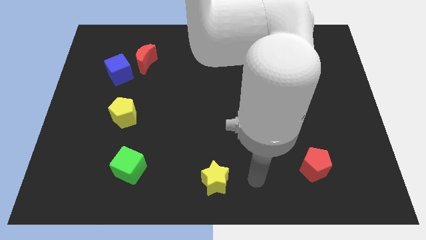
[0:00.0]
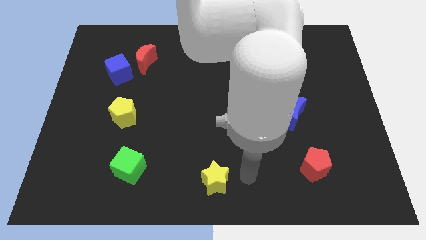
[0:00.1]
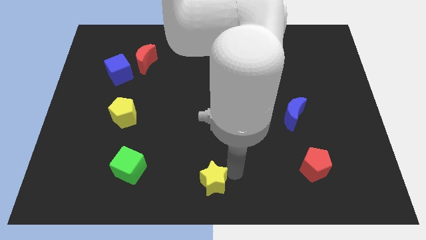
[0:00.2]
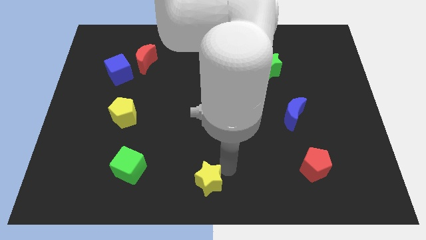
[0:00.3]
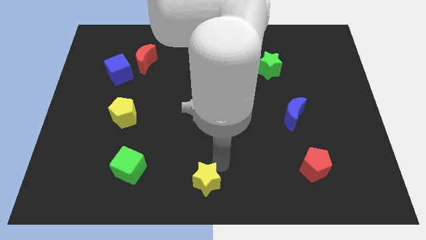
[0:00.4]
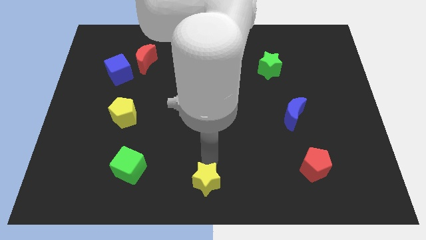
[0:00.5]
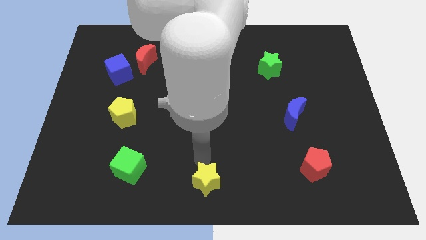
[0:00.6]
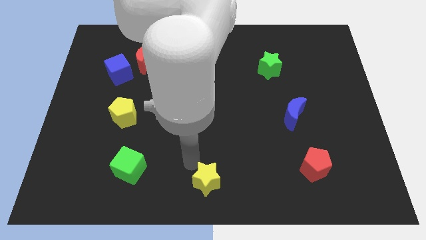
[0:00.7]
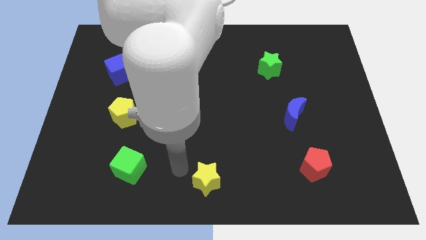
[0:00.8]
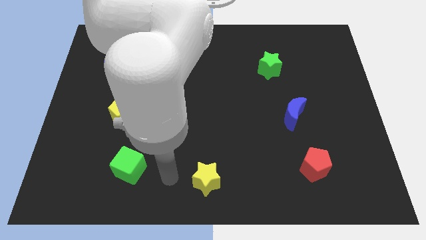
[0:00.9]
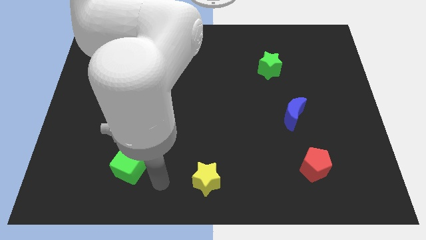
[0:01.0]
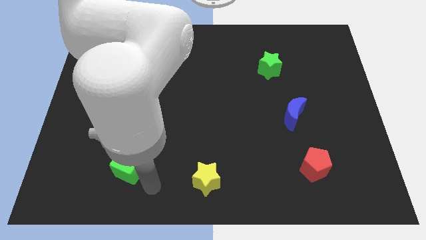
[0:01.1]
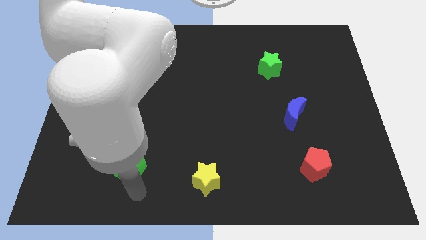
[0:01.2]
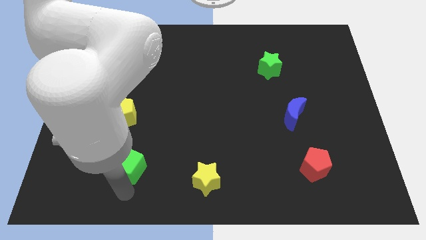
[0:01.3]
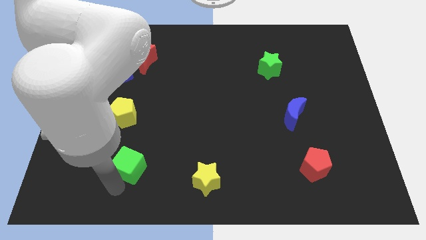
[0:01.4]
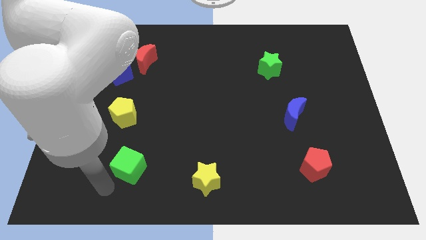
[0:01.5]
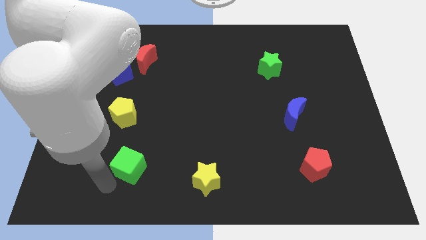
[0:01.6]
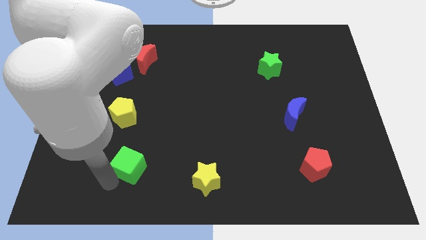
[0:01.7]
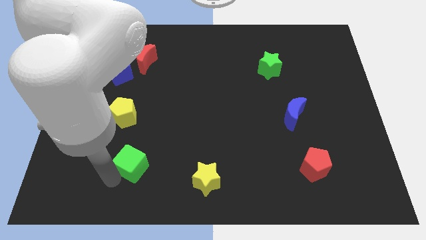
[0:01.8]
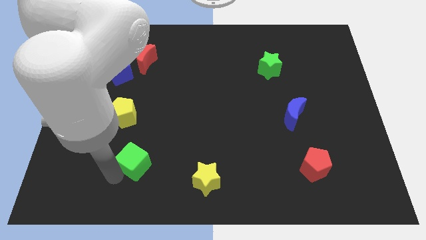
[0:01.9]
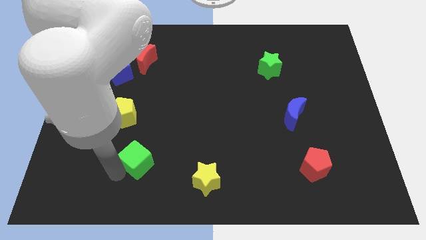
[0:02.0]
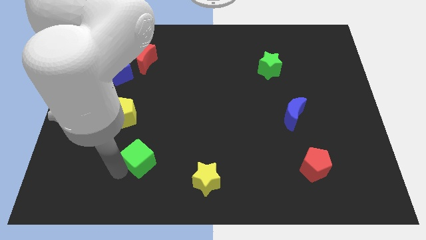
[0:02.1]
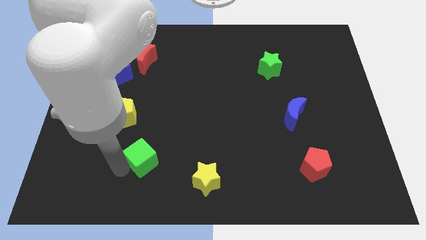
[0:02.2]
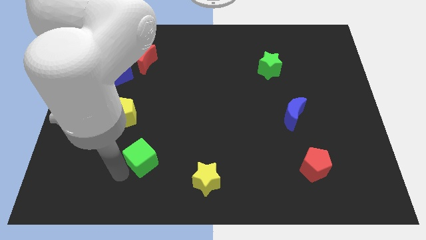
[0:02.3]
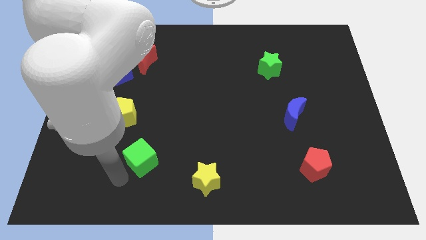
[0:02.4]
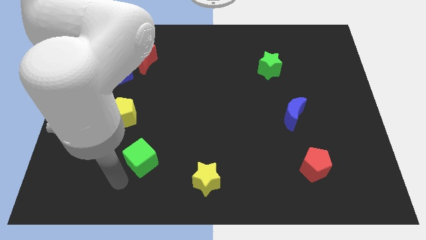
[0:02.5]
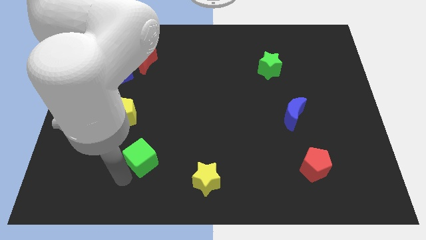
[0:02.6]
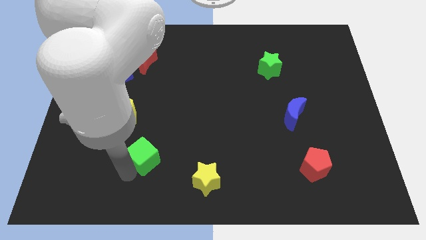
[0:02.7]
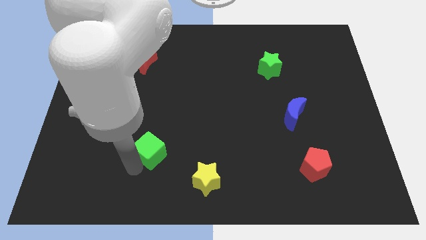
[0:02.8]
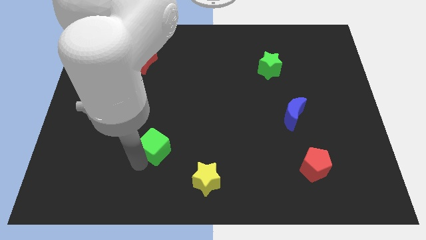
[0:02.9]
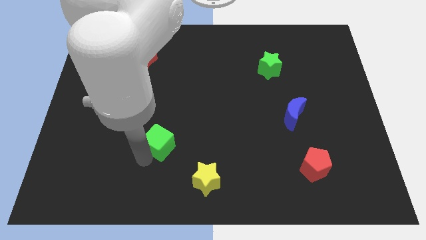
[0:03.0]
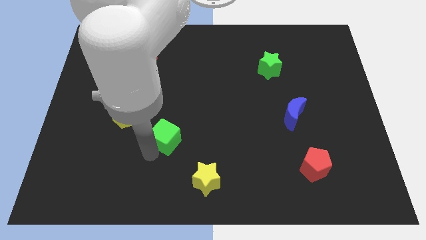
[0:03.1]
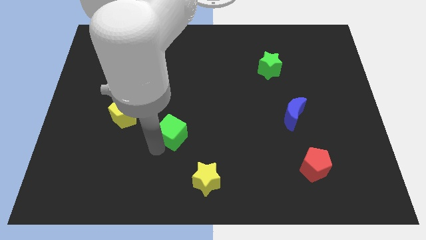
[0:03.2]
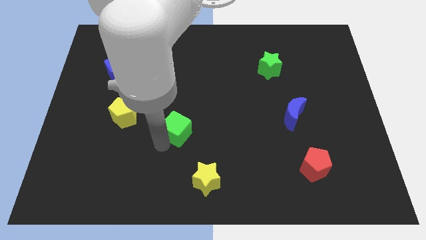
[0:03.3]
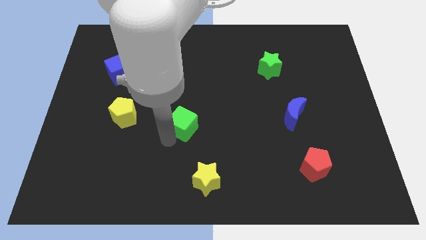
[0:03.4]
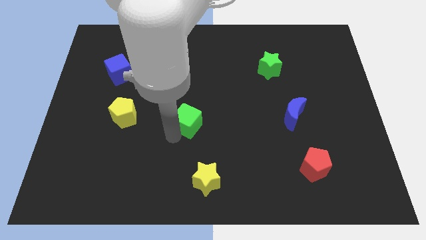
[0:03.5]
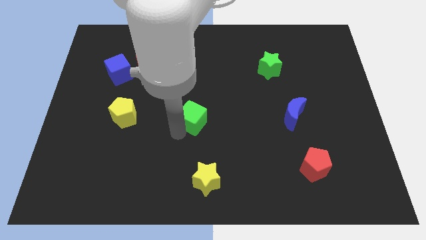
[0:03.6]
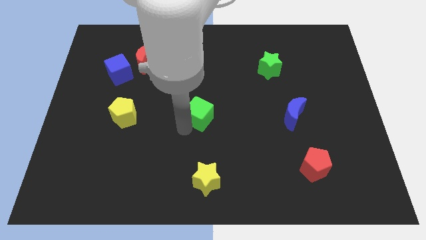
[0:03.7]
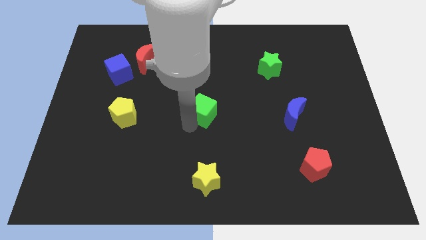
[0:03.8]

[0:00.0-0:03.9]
move the green cube upwards and then to the right

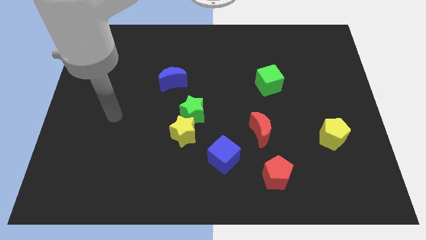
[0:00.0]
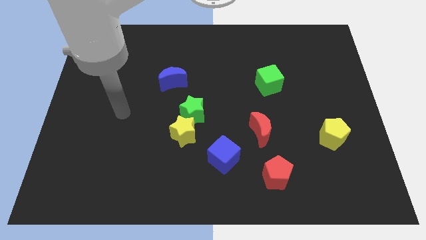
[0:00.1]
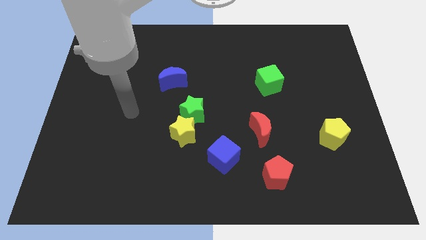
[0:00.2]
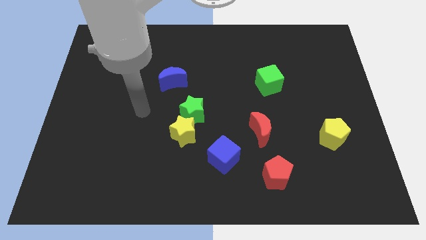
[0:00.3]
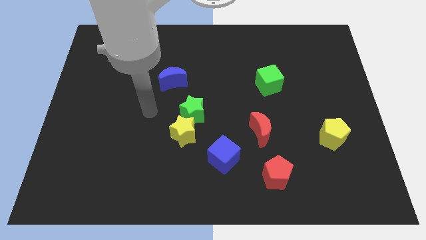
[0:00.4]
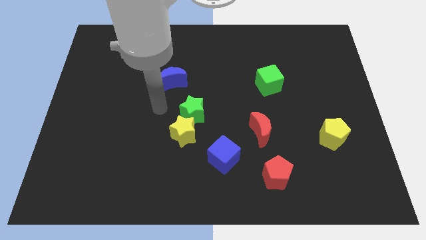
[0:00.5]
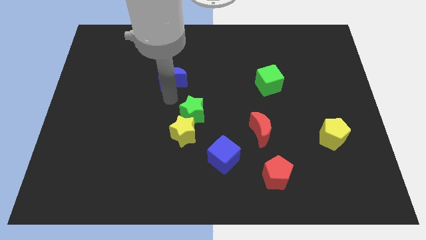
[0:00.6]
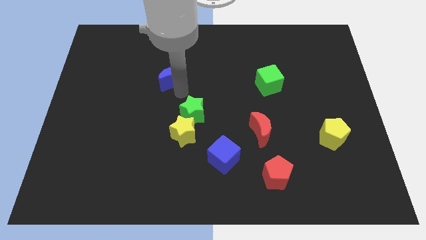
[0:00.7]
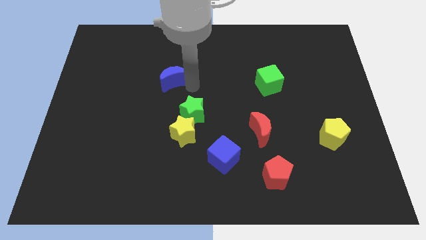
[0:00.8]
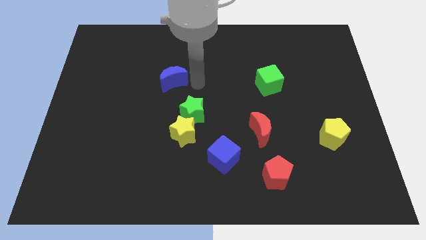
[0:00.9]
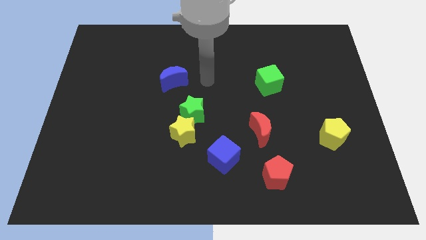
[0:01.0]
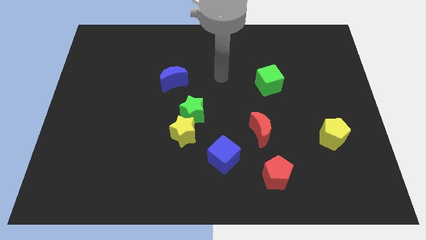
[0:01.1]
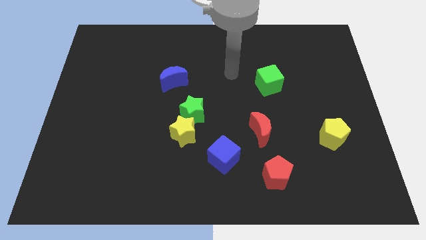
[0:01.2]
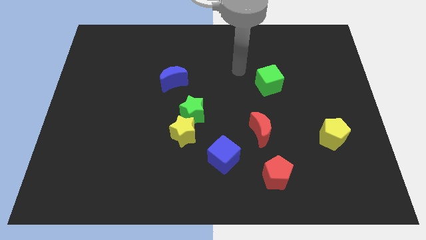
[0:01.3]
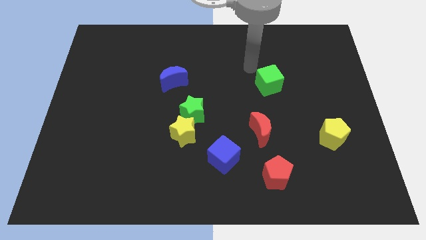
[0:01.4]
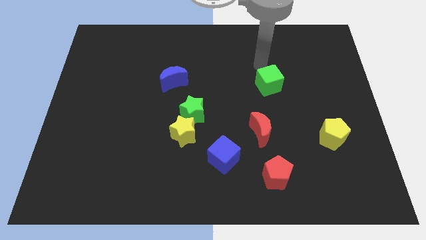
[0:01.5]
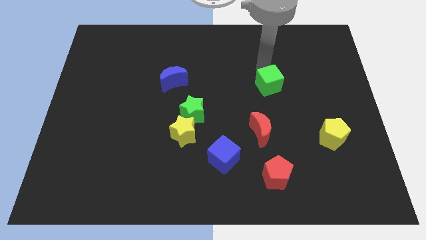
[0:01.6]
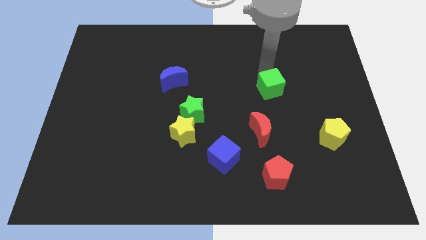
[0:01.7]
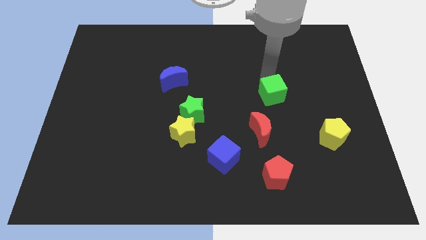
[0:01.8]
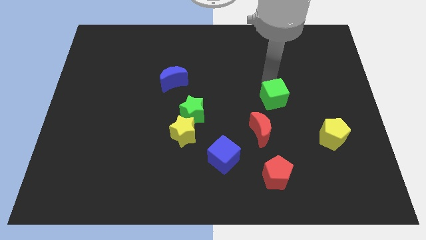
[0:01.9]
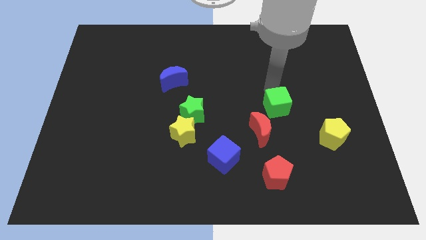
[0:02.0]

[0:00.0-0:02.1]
slightly push the green cube downwards

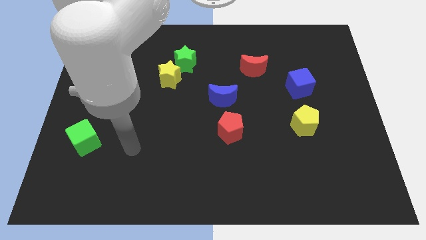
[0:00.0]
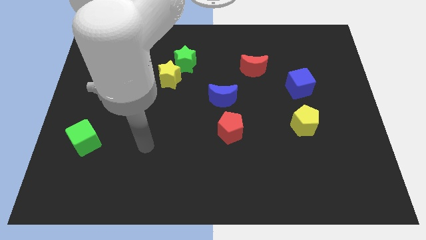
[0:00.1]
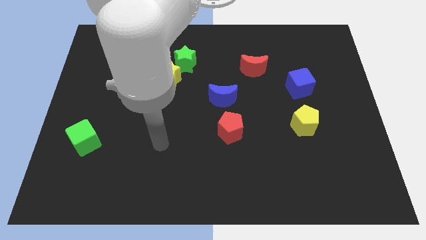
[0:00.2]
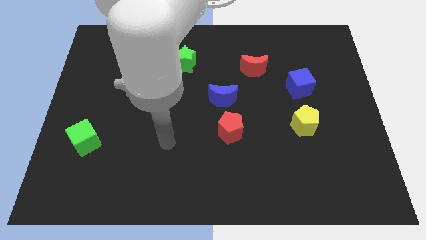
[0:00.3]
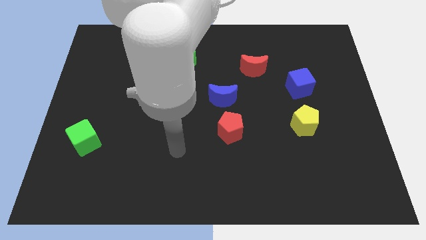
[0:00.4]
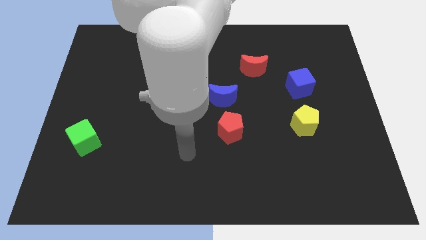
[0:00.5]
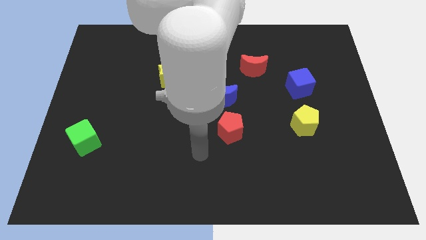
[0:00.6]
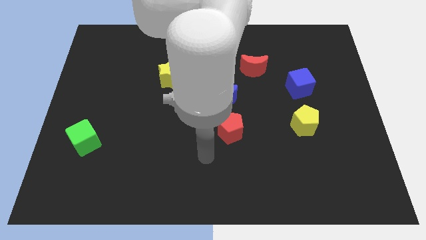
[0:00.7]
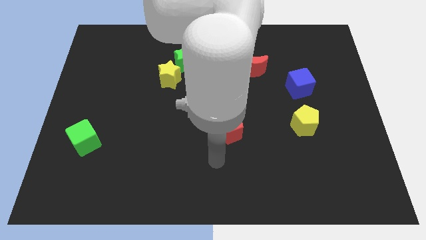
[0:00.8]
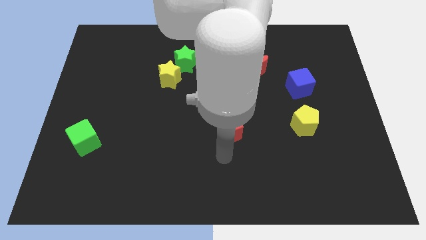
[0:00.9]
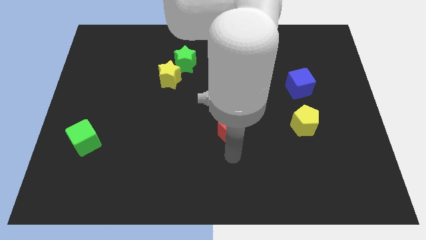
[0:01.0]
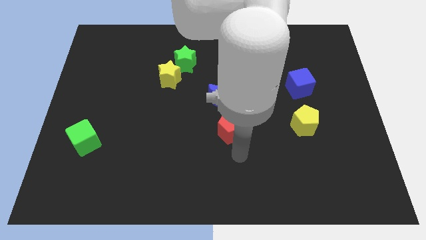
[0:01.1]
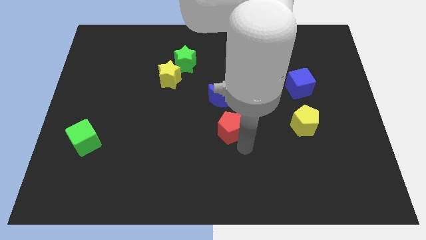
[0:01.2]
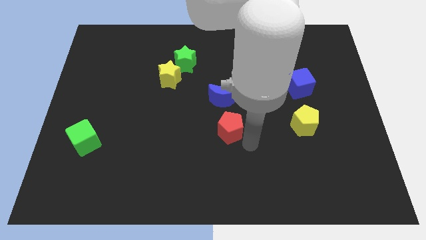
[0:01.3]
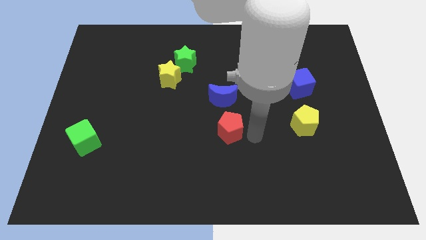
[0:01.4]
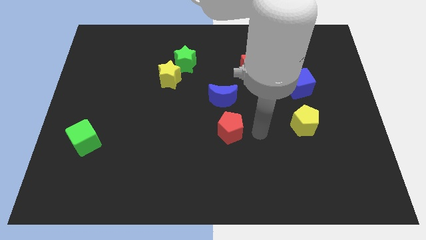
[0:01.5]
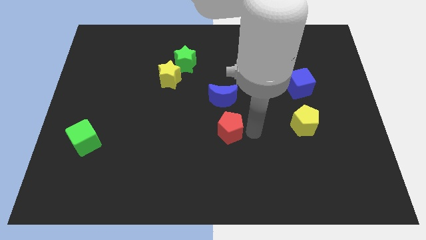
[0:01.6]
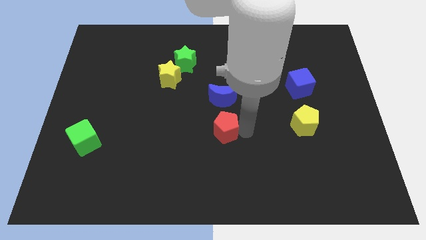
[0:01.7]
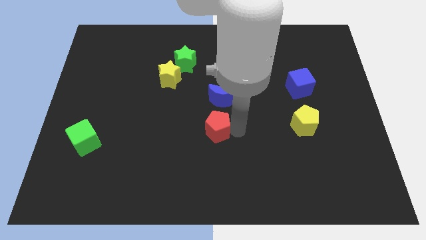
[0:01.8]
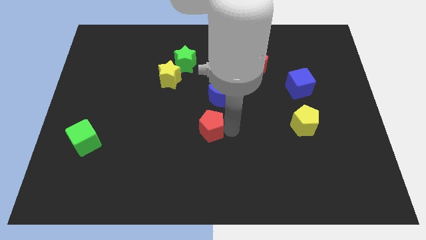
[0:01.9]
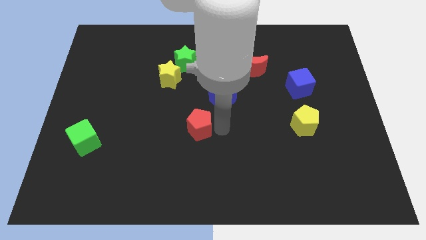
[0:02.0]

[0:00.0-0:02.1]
slightly push the red pentagon left
